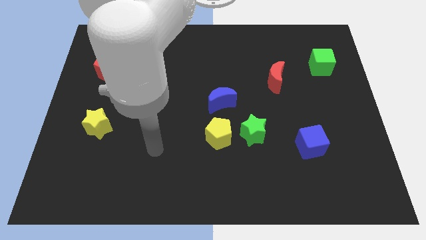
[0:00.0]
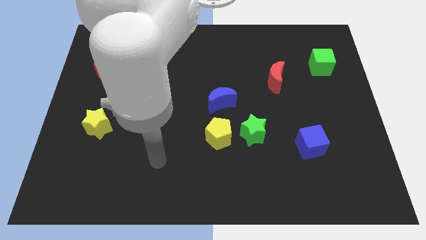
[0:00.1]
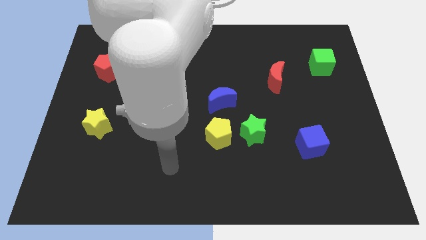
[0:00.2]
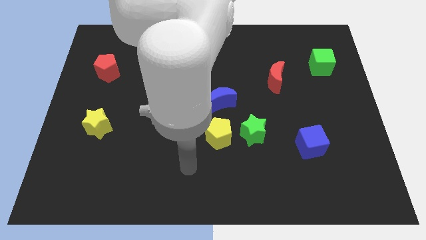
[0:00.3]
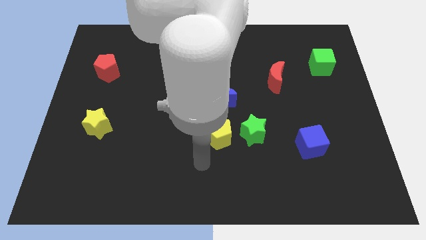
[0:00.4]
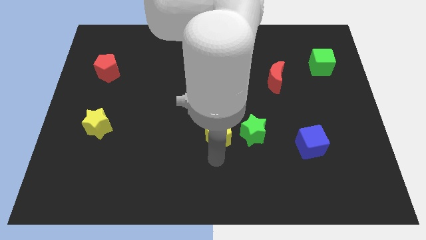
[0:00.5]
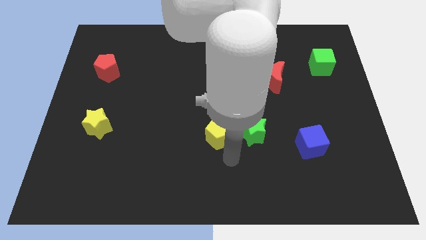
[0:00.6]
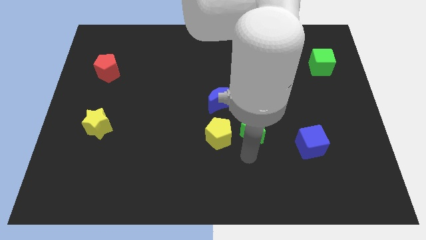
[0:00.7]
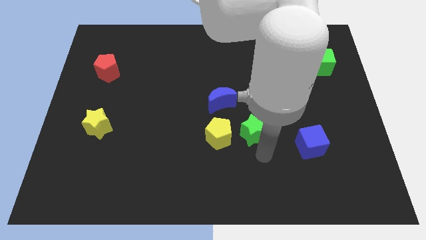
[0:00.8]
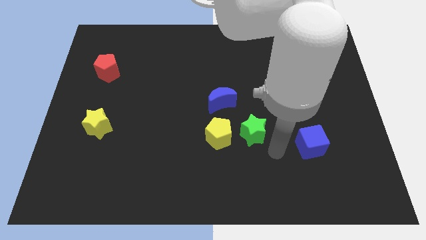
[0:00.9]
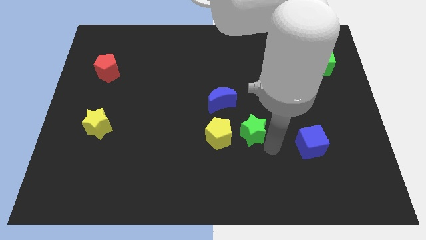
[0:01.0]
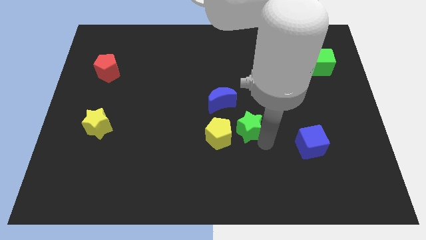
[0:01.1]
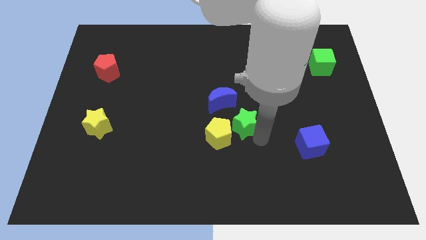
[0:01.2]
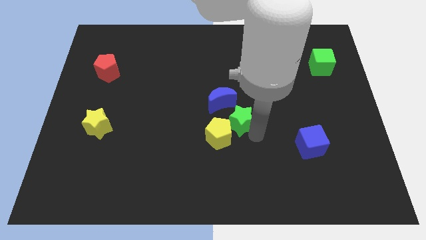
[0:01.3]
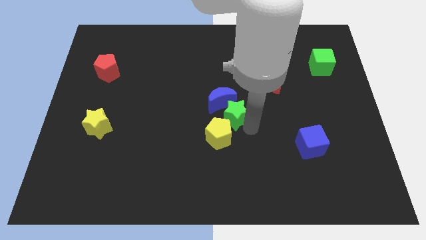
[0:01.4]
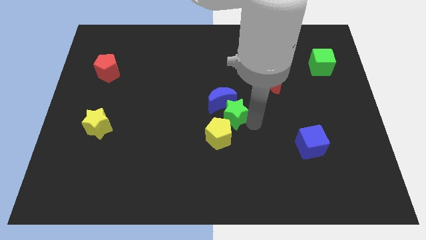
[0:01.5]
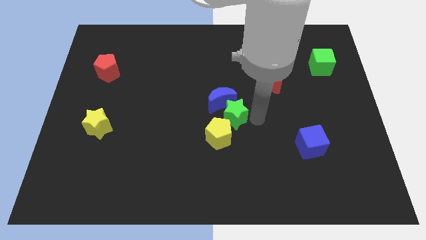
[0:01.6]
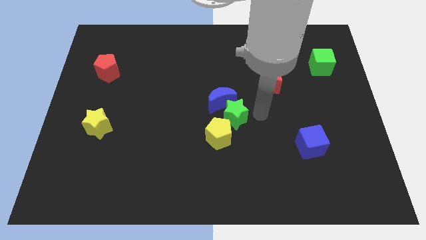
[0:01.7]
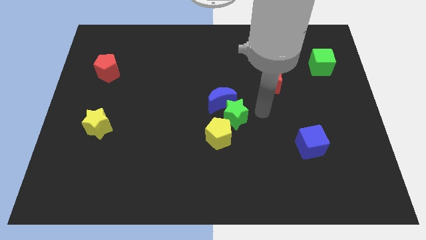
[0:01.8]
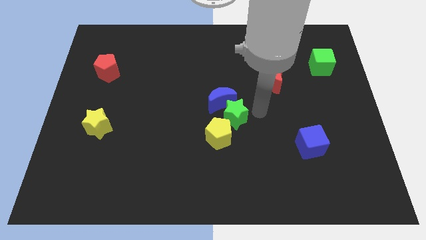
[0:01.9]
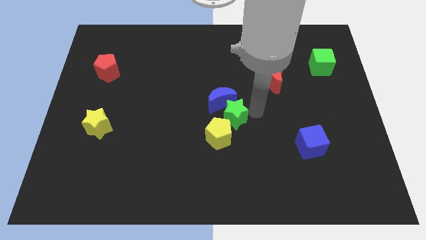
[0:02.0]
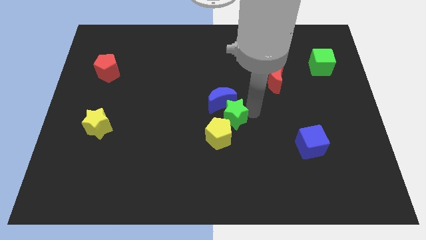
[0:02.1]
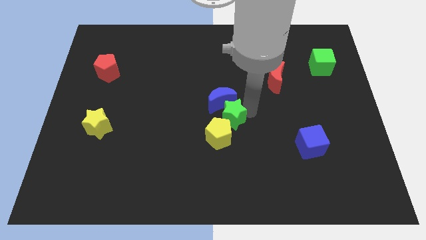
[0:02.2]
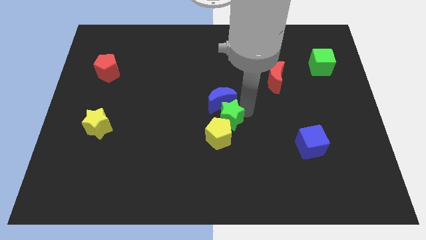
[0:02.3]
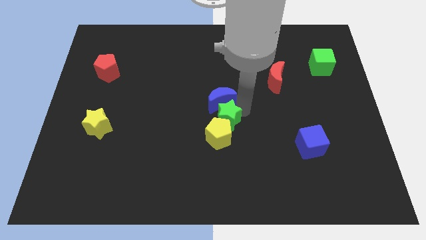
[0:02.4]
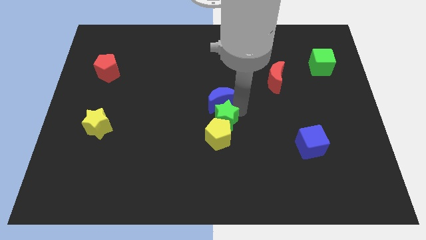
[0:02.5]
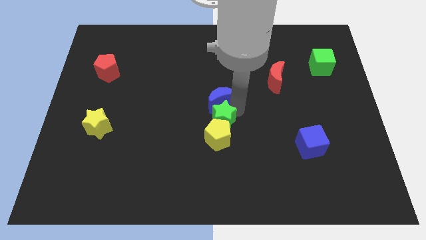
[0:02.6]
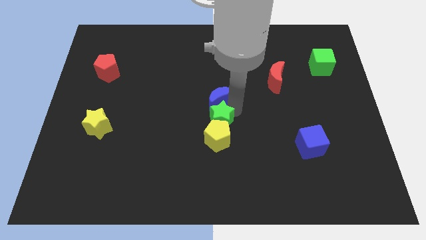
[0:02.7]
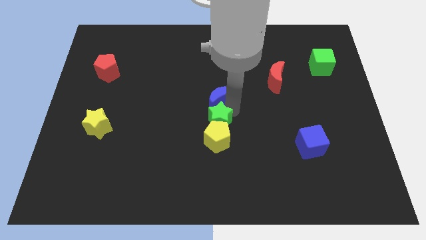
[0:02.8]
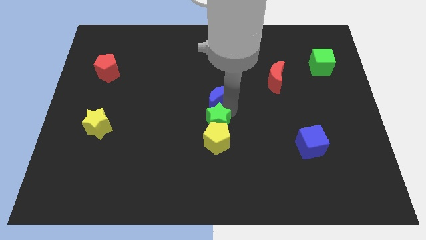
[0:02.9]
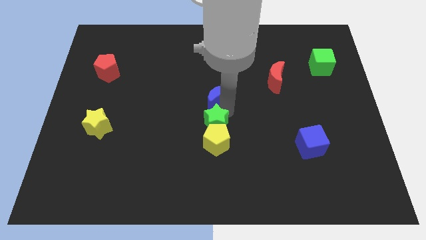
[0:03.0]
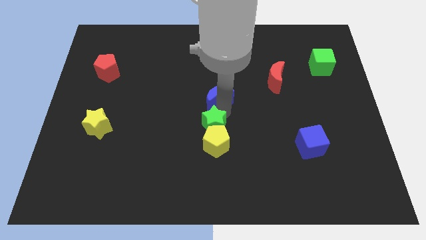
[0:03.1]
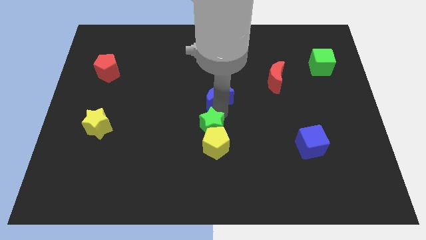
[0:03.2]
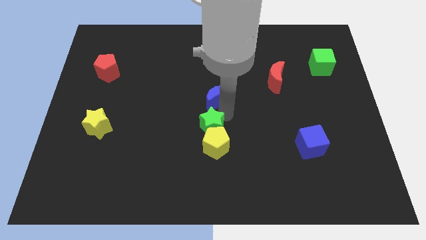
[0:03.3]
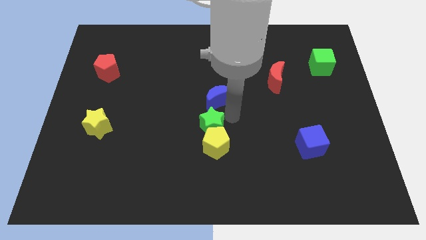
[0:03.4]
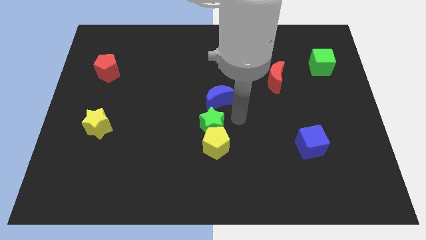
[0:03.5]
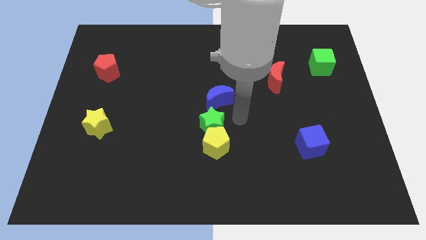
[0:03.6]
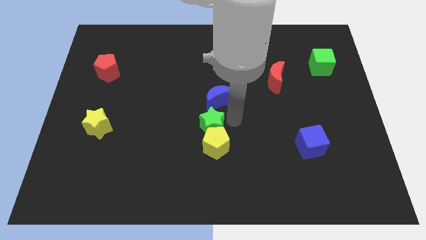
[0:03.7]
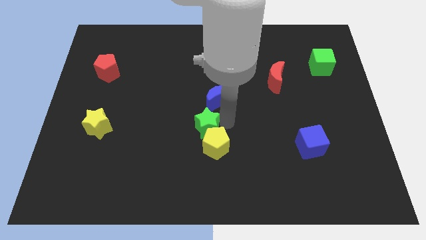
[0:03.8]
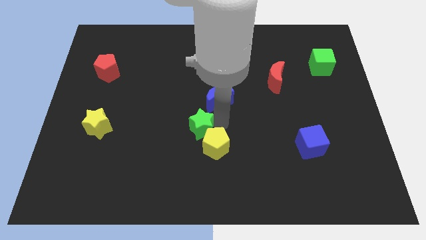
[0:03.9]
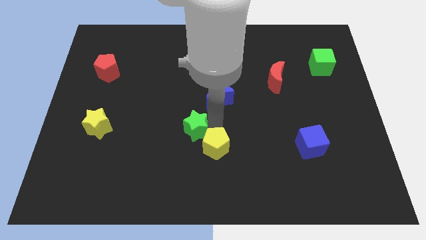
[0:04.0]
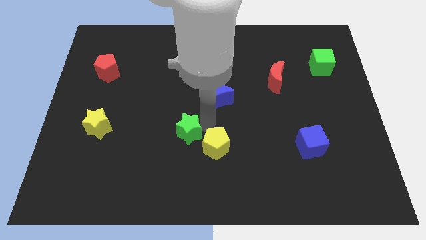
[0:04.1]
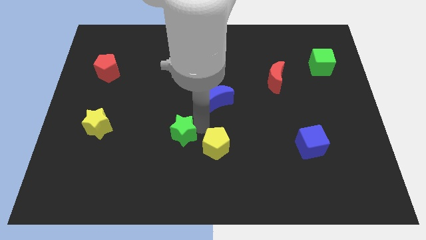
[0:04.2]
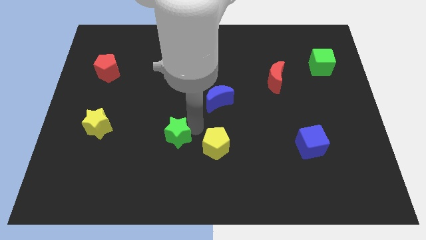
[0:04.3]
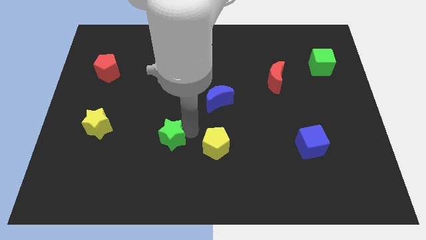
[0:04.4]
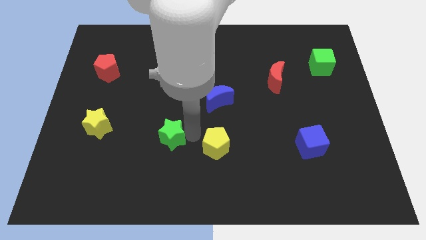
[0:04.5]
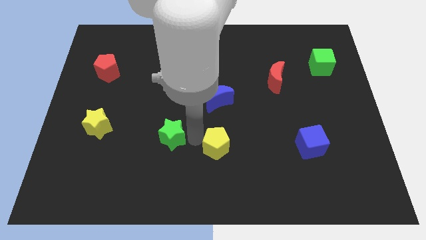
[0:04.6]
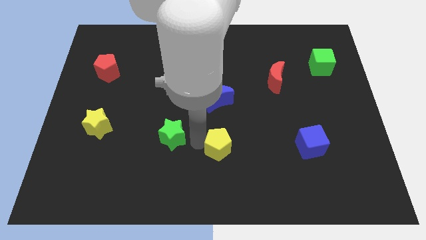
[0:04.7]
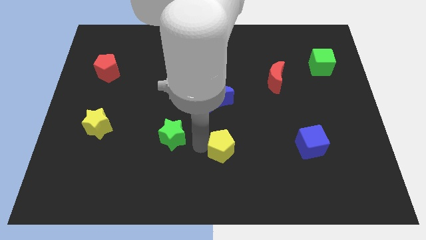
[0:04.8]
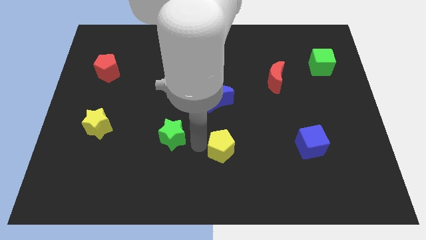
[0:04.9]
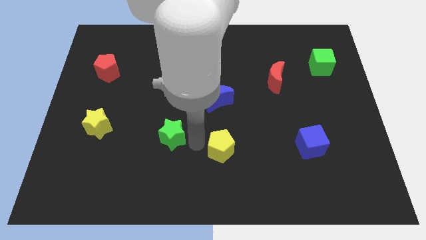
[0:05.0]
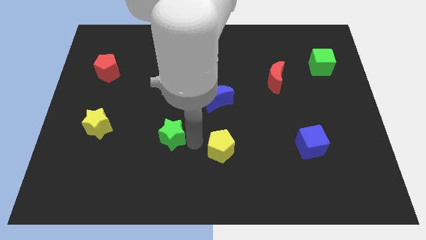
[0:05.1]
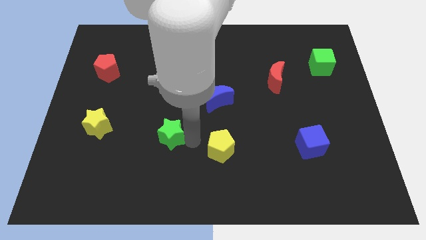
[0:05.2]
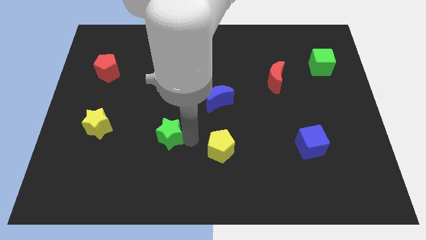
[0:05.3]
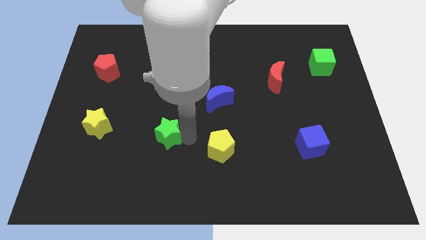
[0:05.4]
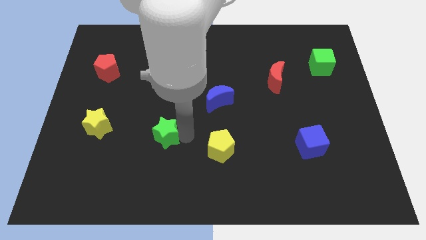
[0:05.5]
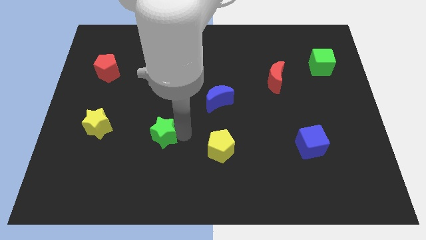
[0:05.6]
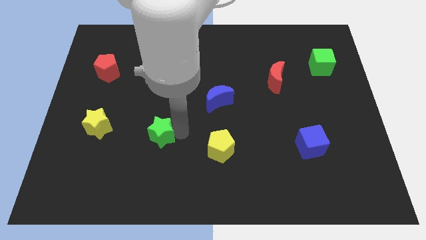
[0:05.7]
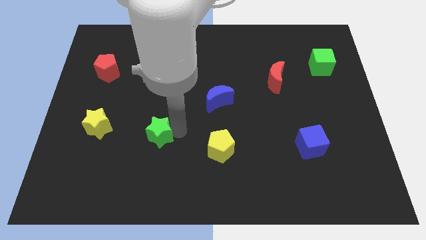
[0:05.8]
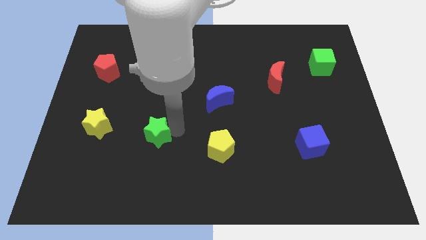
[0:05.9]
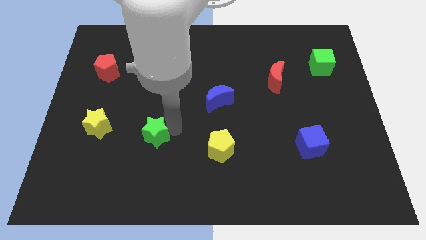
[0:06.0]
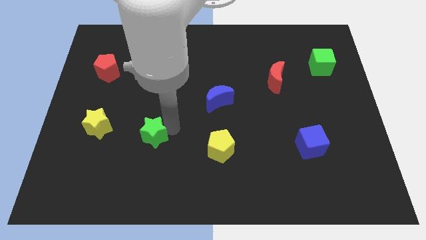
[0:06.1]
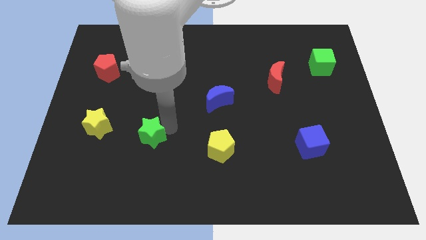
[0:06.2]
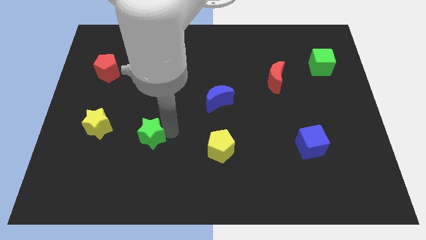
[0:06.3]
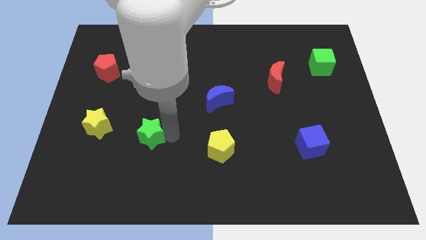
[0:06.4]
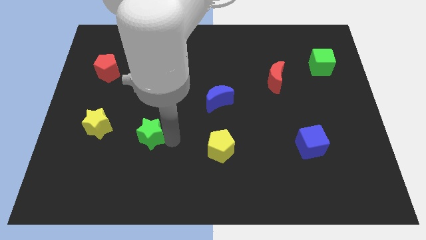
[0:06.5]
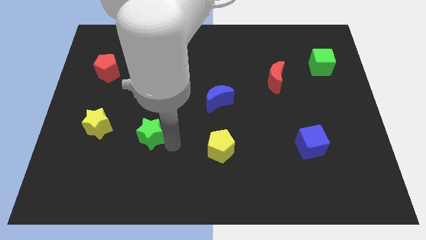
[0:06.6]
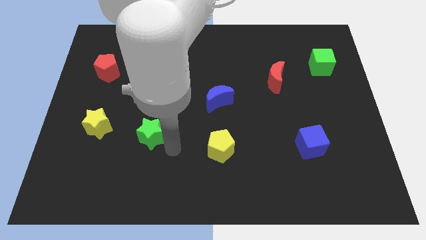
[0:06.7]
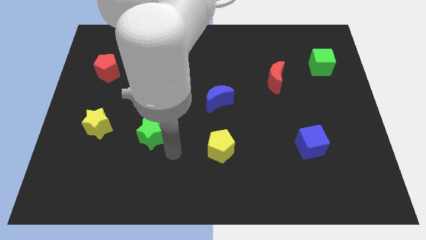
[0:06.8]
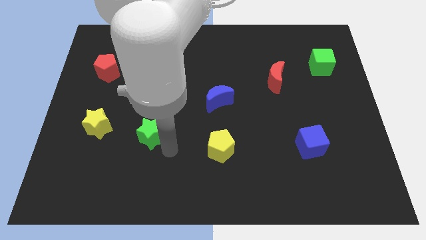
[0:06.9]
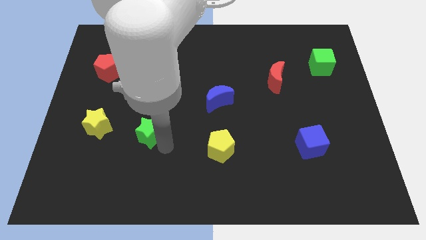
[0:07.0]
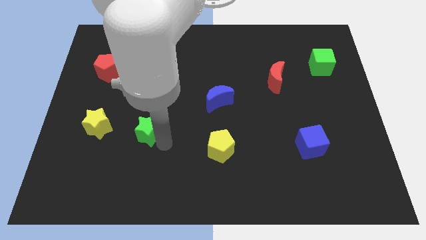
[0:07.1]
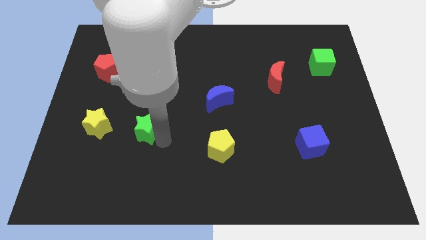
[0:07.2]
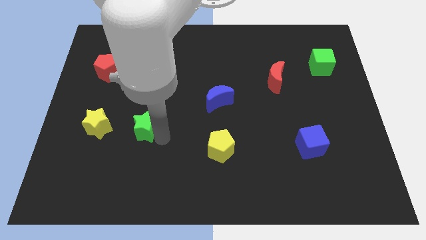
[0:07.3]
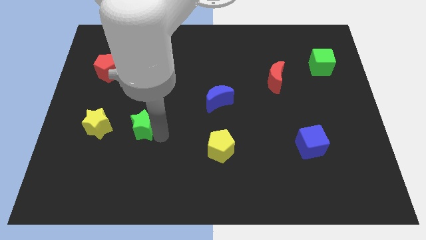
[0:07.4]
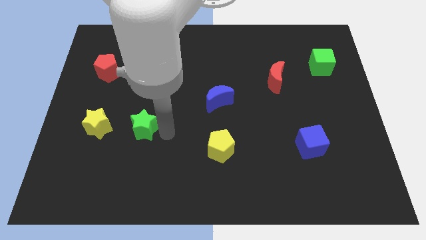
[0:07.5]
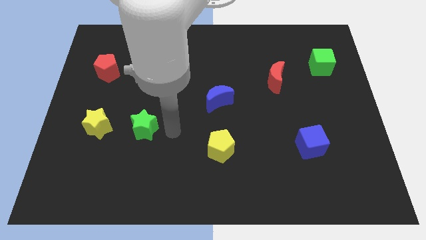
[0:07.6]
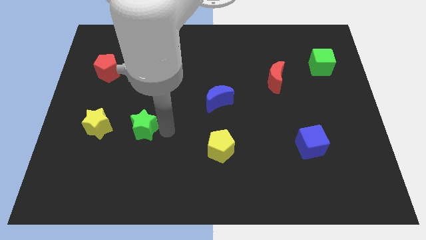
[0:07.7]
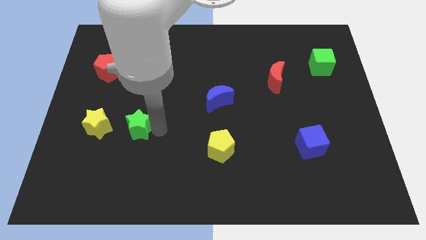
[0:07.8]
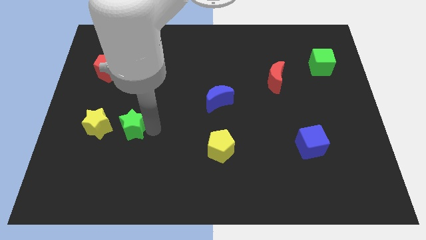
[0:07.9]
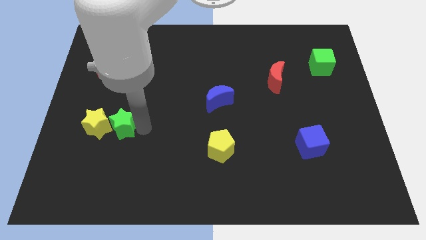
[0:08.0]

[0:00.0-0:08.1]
push the green star close to the yellow star
